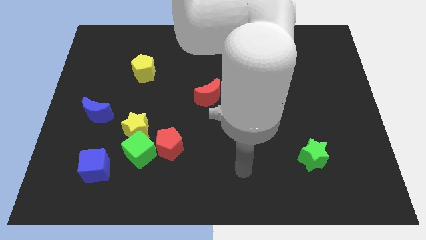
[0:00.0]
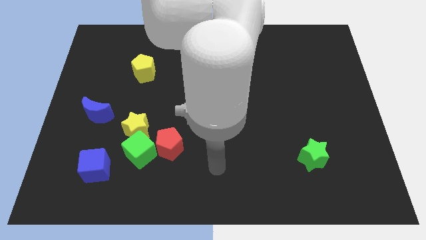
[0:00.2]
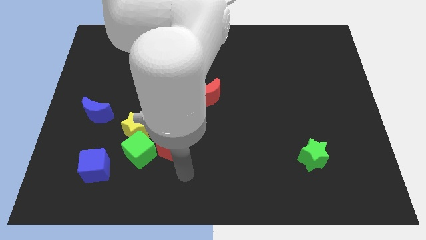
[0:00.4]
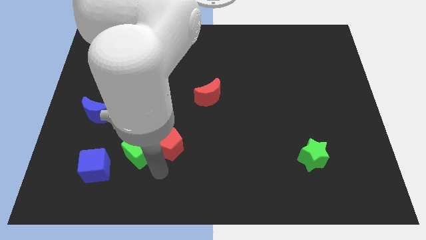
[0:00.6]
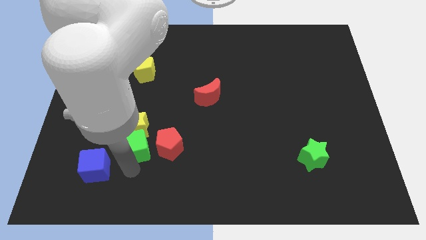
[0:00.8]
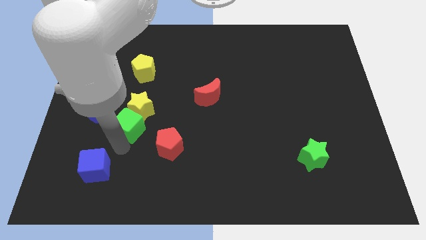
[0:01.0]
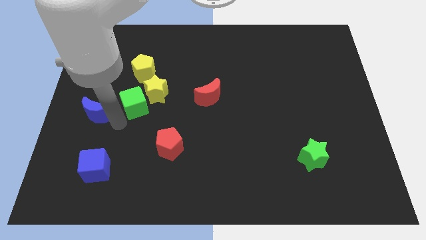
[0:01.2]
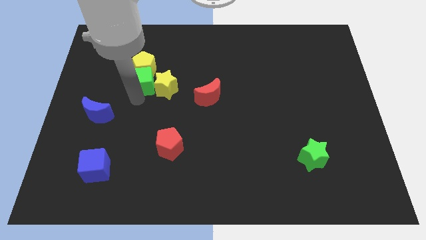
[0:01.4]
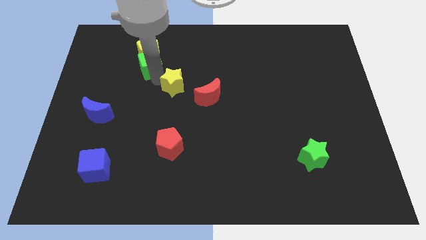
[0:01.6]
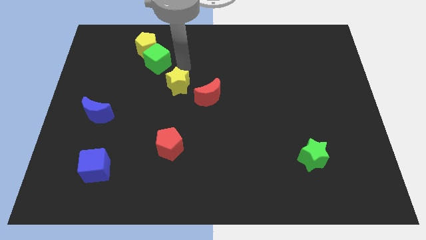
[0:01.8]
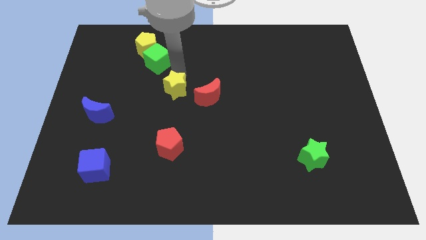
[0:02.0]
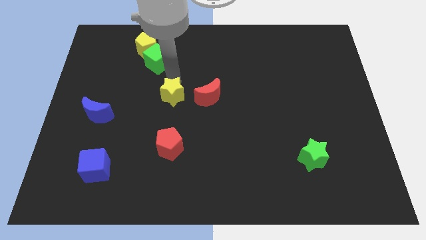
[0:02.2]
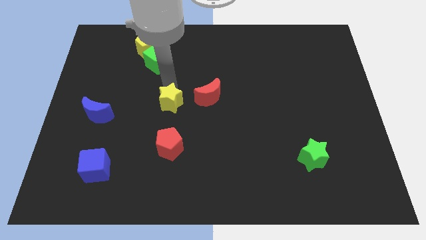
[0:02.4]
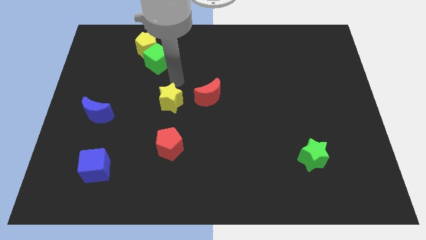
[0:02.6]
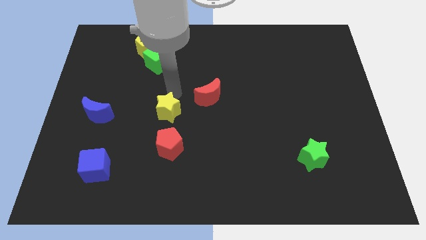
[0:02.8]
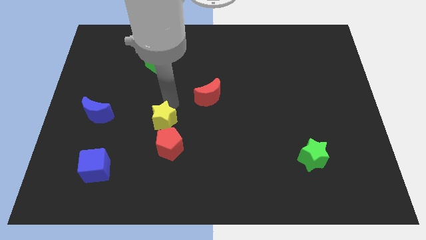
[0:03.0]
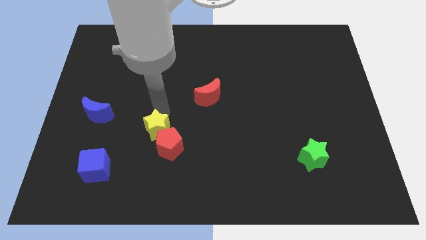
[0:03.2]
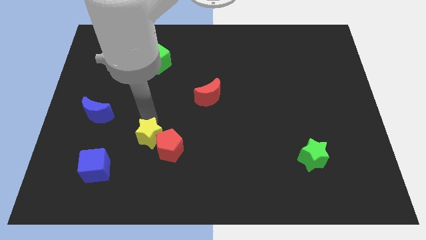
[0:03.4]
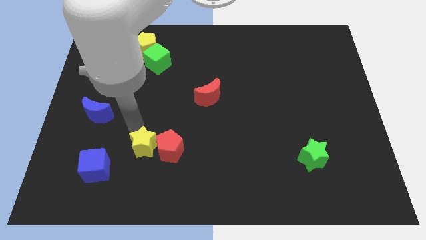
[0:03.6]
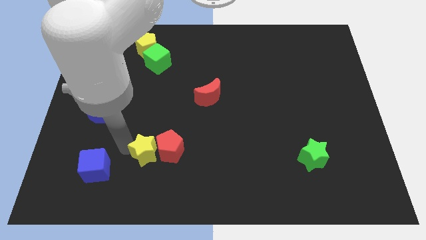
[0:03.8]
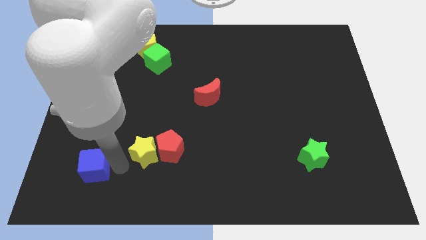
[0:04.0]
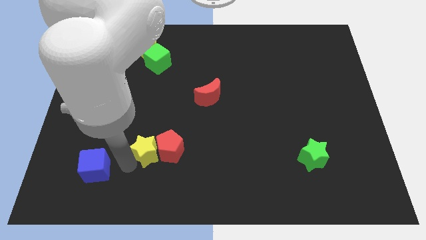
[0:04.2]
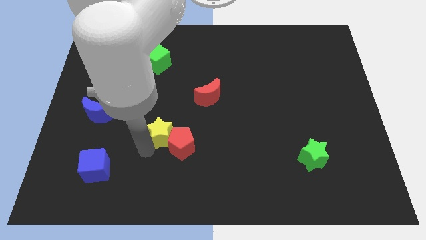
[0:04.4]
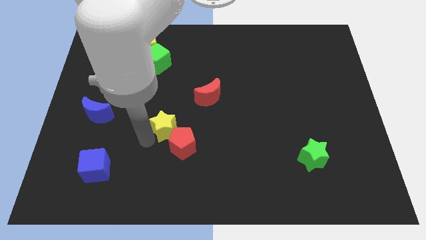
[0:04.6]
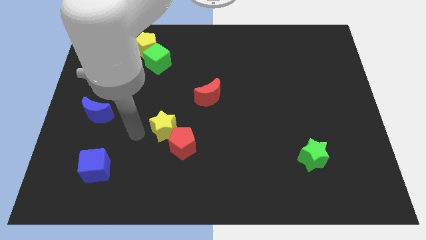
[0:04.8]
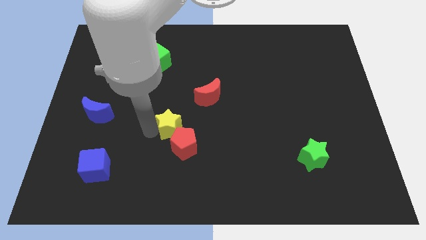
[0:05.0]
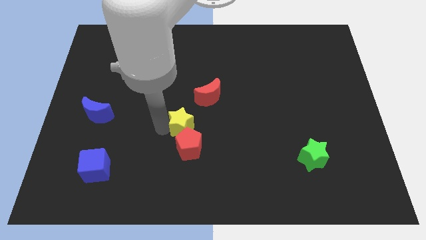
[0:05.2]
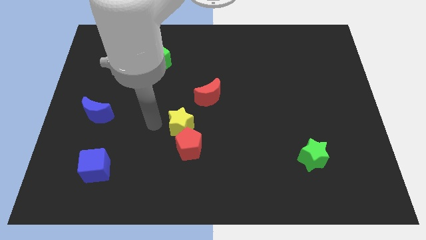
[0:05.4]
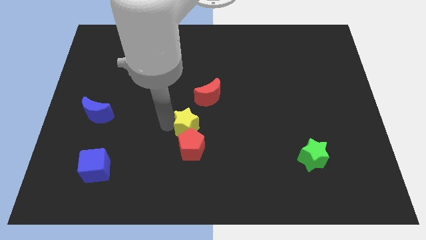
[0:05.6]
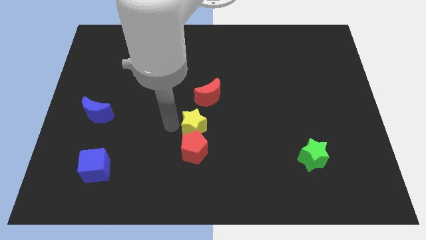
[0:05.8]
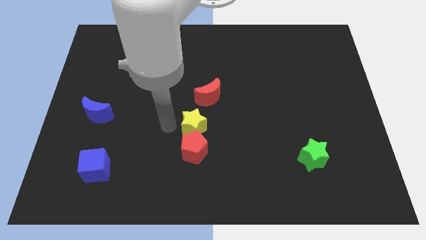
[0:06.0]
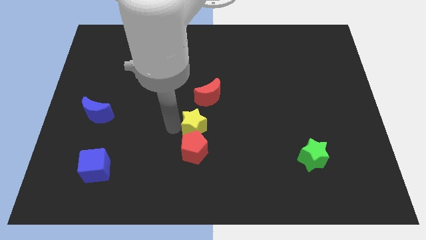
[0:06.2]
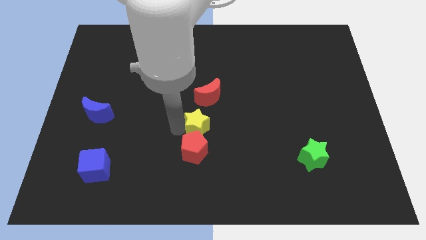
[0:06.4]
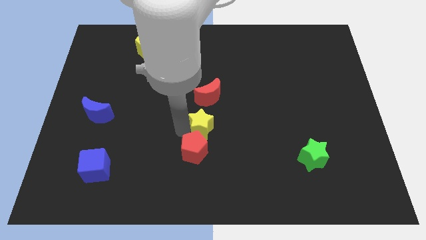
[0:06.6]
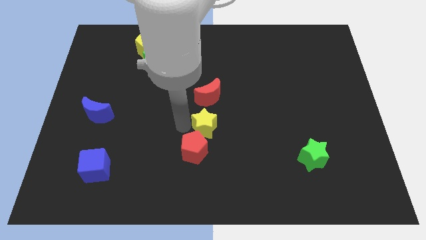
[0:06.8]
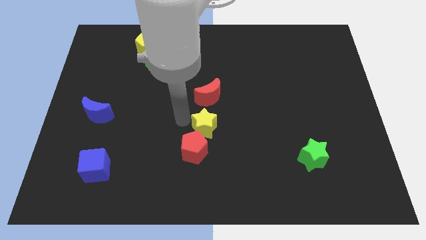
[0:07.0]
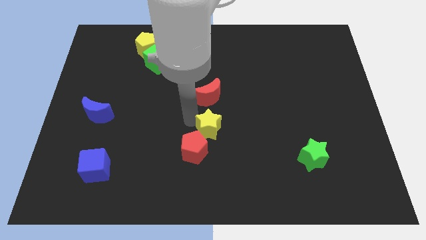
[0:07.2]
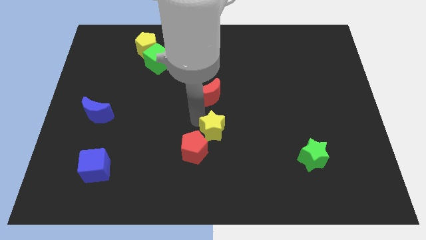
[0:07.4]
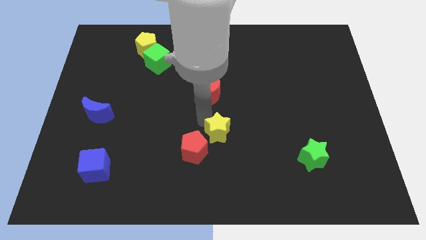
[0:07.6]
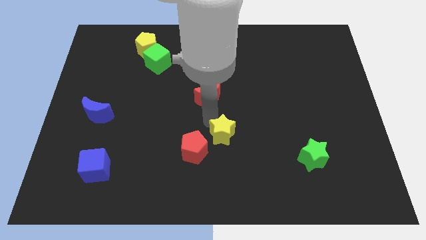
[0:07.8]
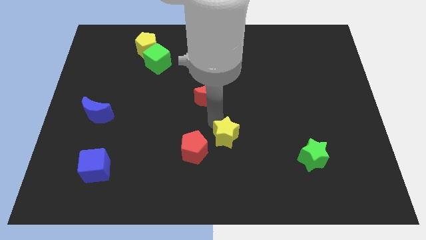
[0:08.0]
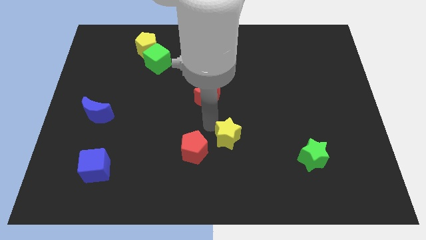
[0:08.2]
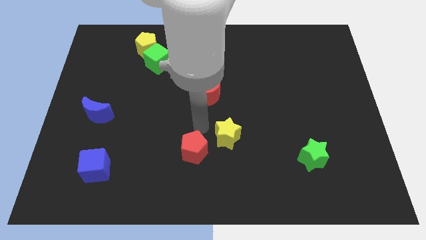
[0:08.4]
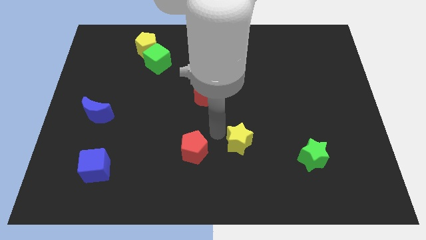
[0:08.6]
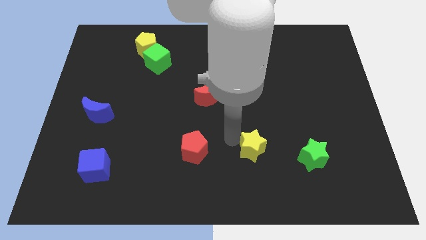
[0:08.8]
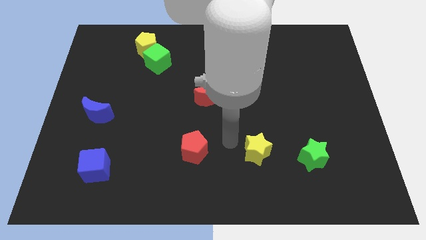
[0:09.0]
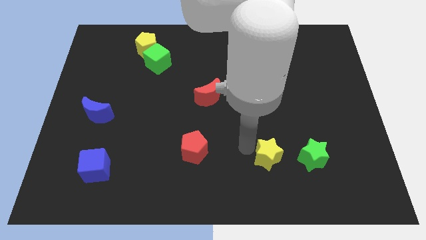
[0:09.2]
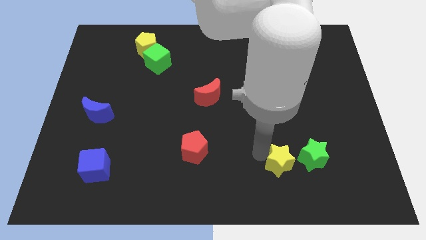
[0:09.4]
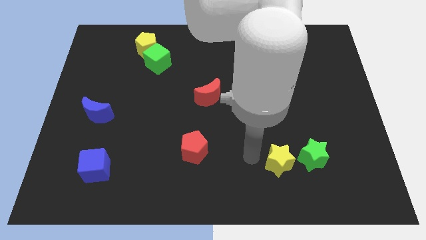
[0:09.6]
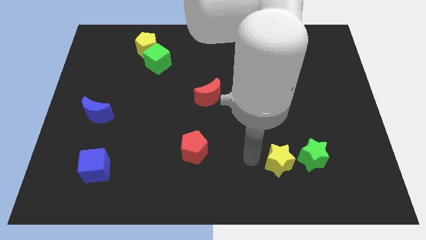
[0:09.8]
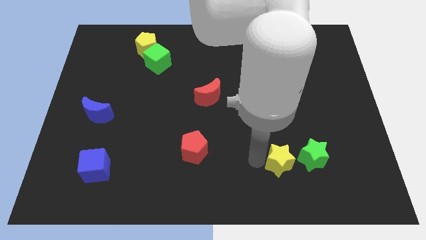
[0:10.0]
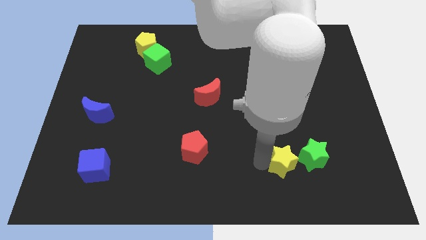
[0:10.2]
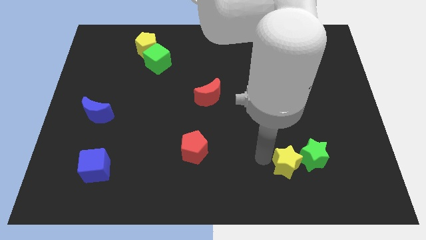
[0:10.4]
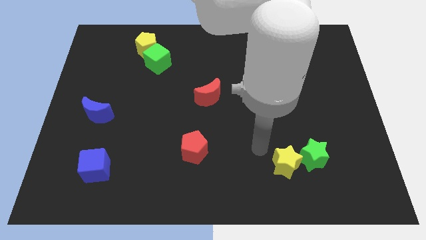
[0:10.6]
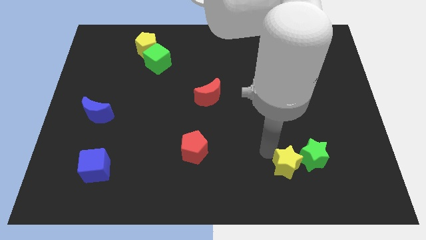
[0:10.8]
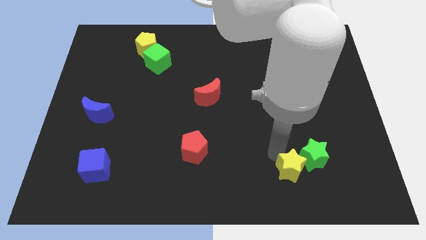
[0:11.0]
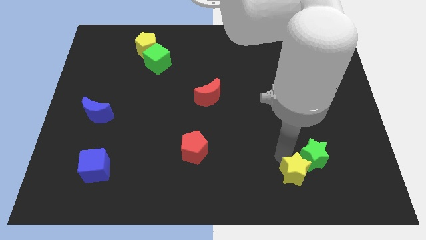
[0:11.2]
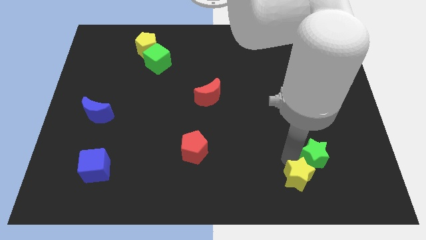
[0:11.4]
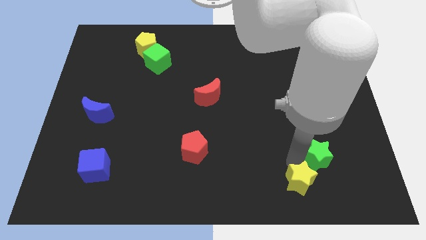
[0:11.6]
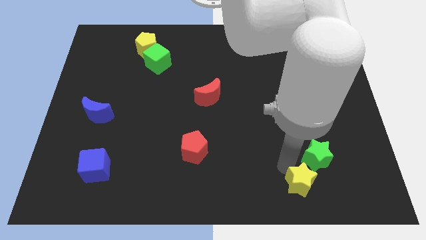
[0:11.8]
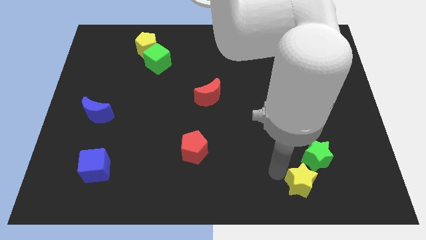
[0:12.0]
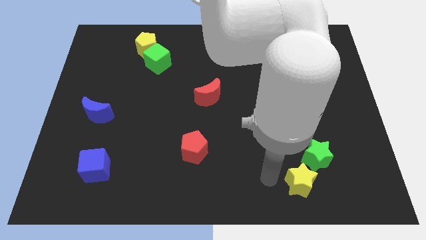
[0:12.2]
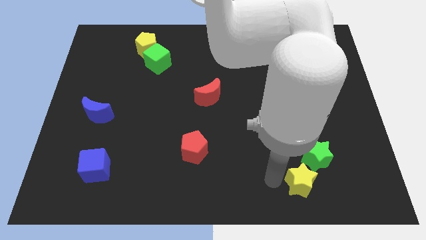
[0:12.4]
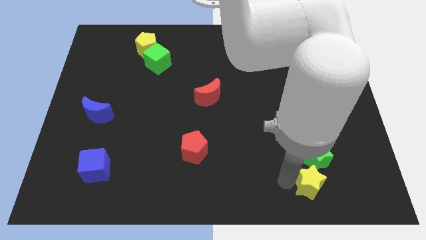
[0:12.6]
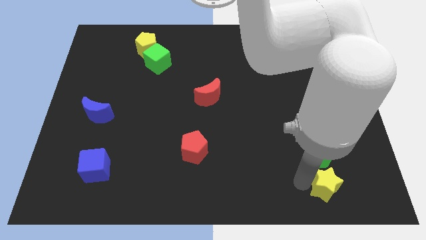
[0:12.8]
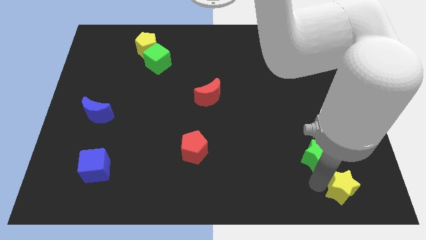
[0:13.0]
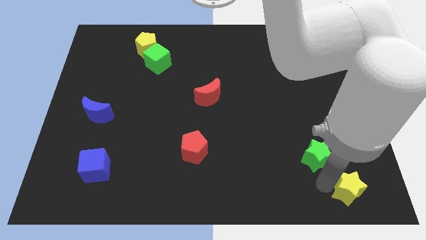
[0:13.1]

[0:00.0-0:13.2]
slide the yellow star to the bottom right

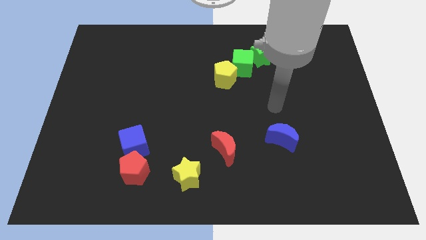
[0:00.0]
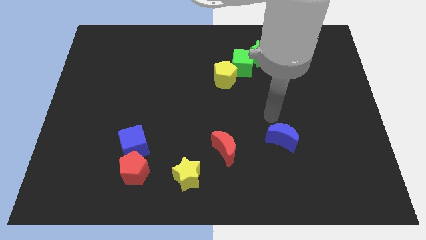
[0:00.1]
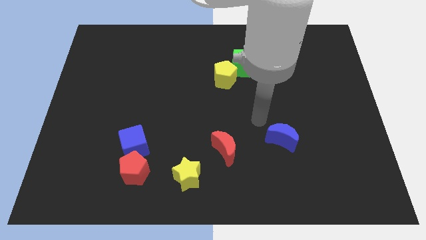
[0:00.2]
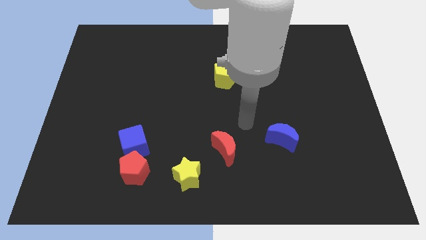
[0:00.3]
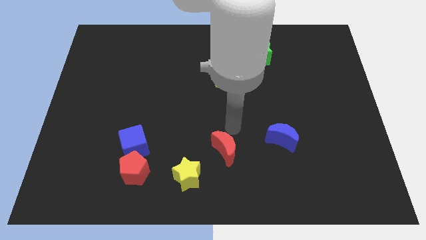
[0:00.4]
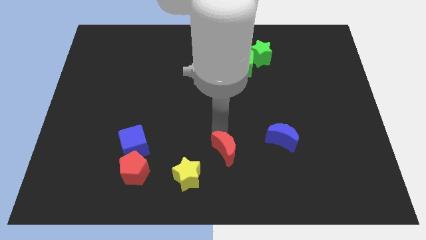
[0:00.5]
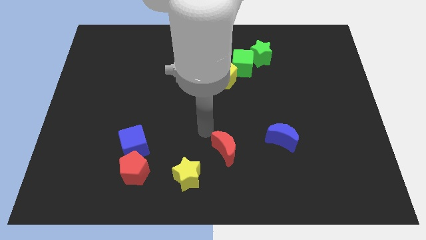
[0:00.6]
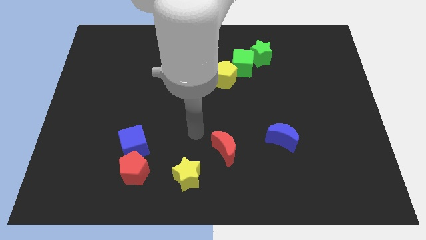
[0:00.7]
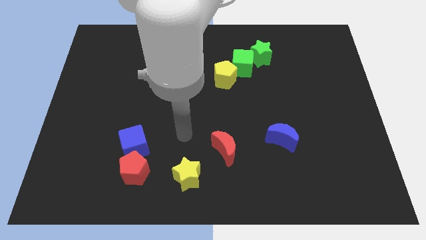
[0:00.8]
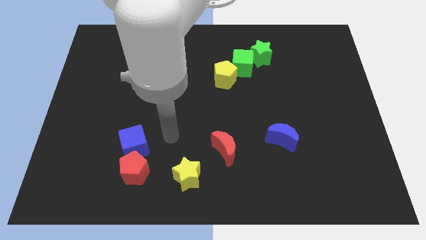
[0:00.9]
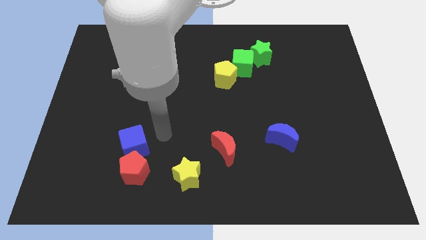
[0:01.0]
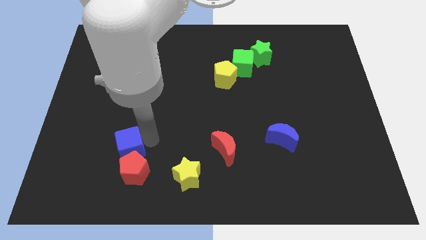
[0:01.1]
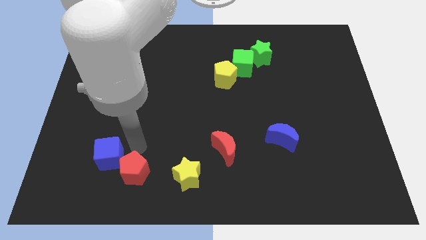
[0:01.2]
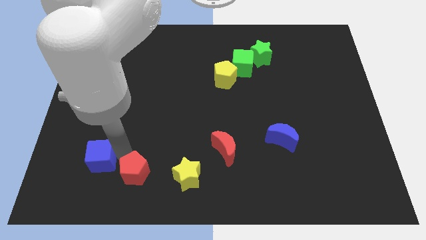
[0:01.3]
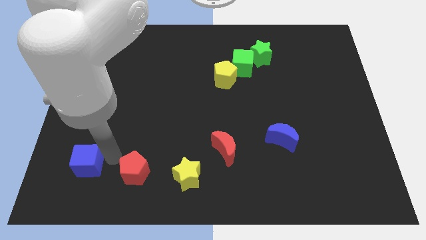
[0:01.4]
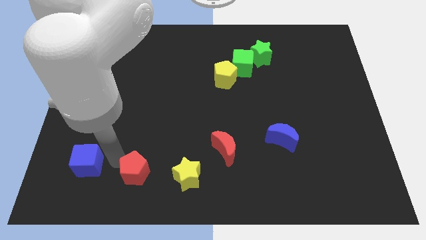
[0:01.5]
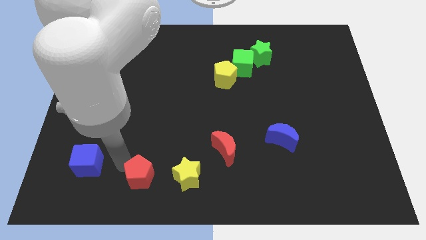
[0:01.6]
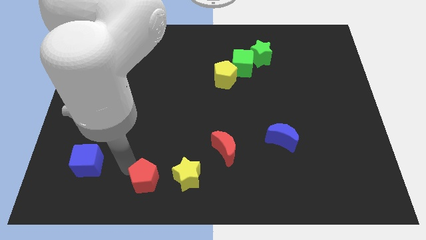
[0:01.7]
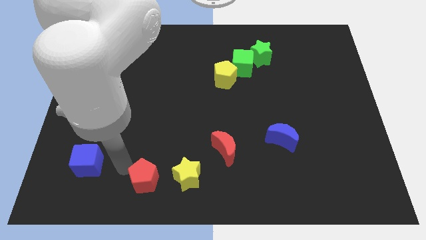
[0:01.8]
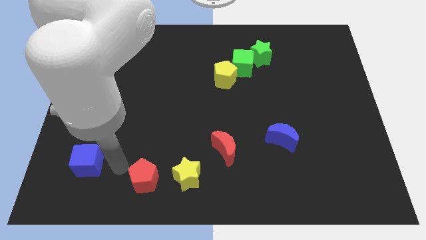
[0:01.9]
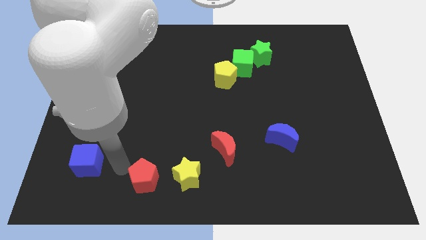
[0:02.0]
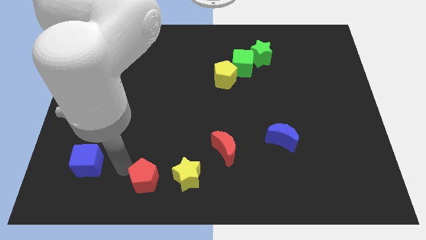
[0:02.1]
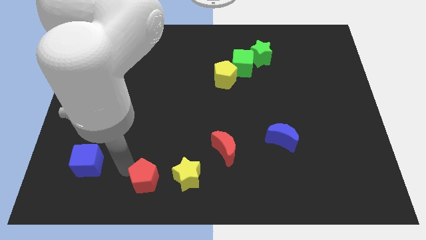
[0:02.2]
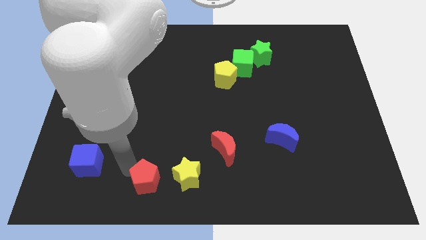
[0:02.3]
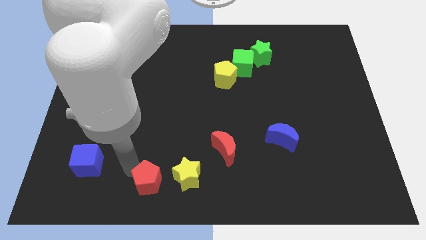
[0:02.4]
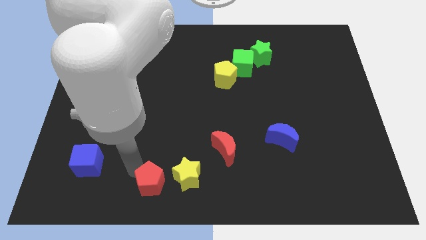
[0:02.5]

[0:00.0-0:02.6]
push the red pentagon to the bottom side
